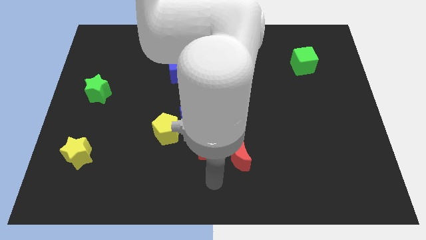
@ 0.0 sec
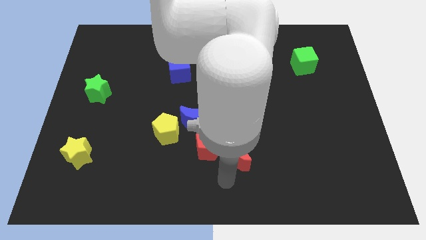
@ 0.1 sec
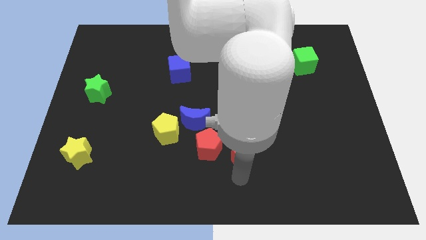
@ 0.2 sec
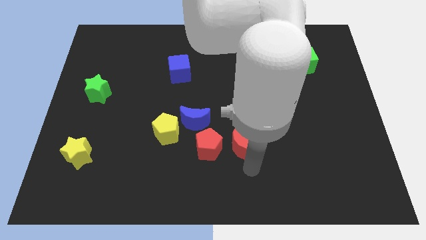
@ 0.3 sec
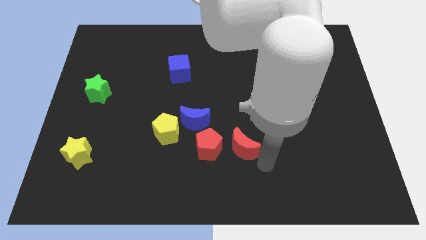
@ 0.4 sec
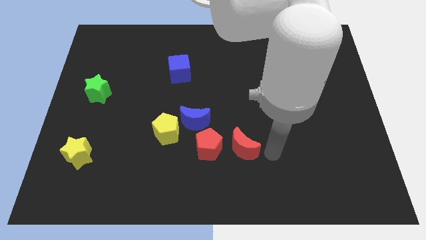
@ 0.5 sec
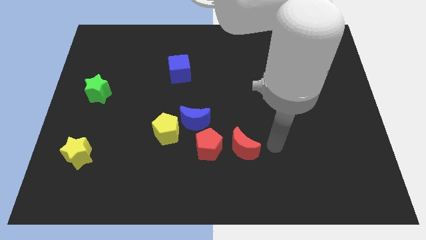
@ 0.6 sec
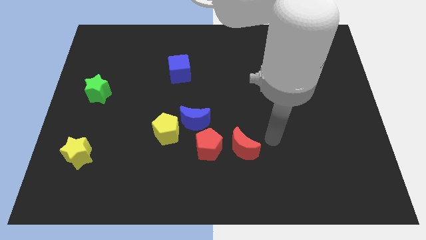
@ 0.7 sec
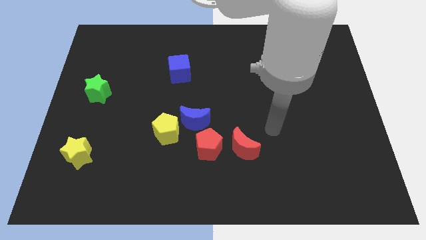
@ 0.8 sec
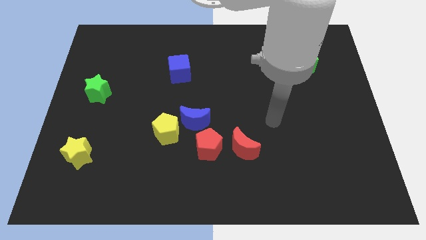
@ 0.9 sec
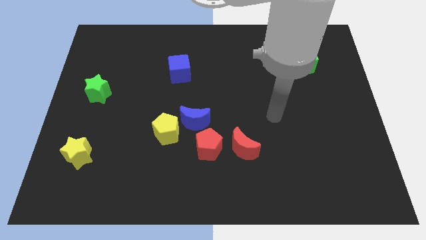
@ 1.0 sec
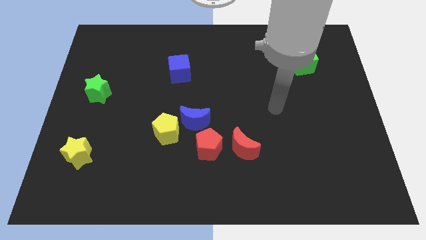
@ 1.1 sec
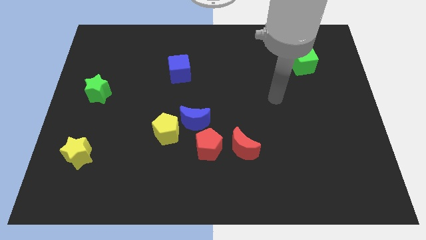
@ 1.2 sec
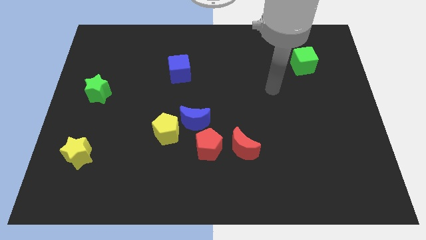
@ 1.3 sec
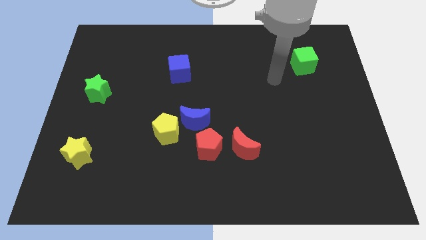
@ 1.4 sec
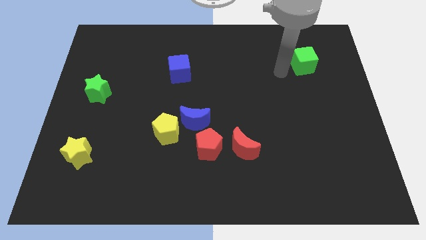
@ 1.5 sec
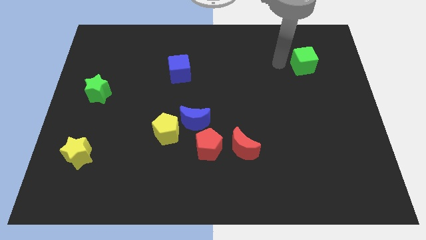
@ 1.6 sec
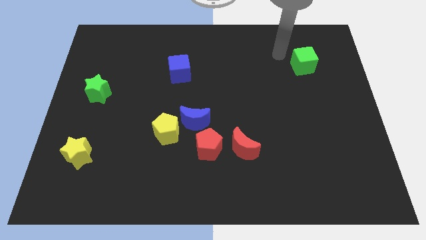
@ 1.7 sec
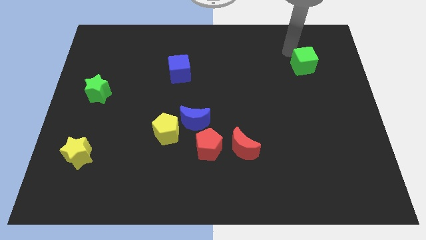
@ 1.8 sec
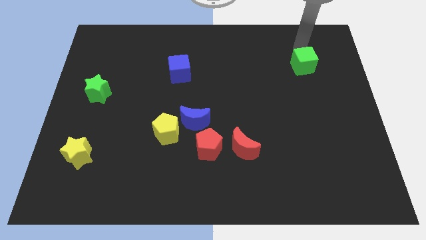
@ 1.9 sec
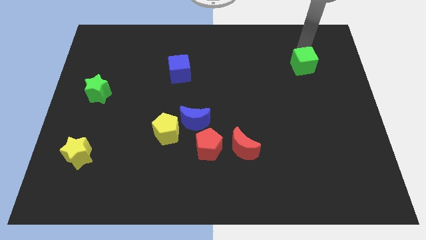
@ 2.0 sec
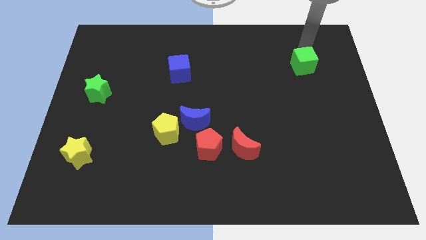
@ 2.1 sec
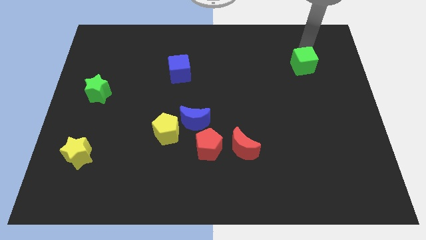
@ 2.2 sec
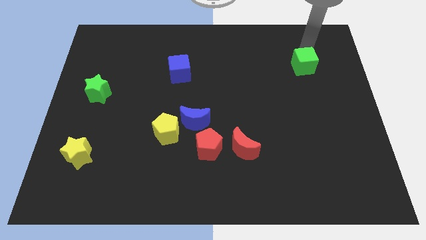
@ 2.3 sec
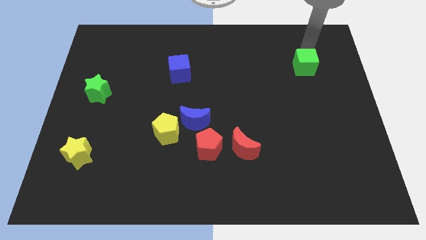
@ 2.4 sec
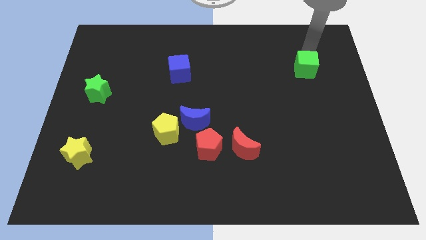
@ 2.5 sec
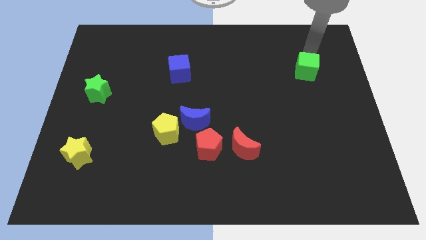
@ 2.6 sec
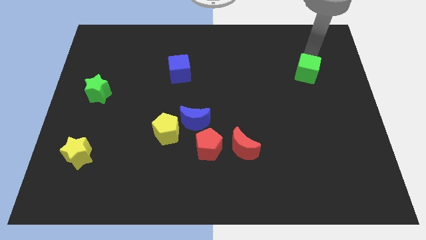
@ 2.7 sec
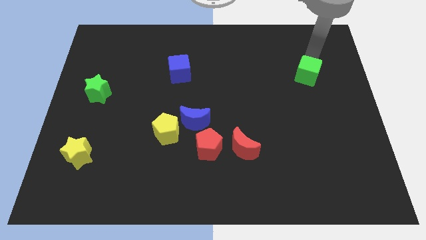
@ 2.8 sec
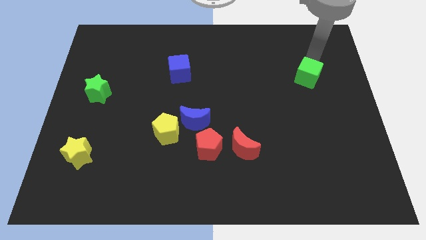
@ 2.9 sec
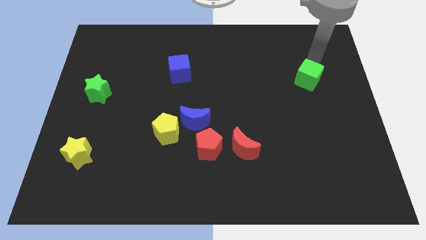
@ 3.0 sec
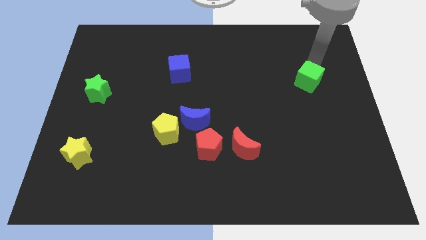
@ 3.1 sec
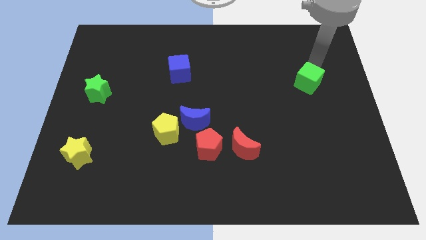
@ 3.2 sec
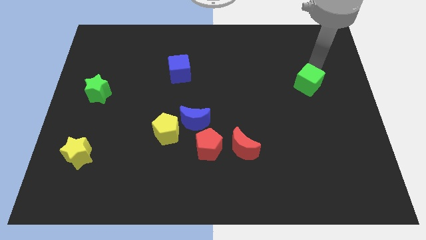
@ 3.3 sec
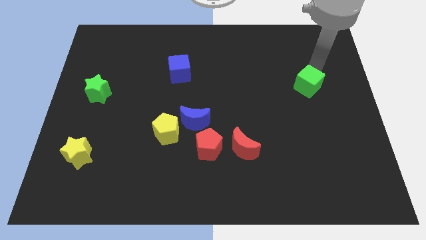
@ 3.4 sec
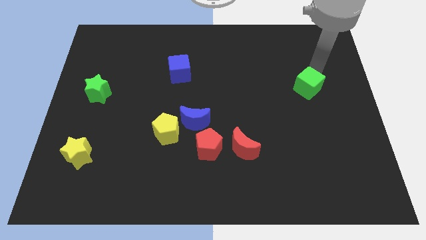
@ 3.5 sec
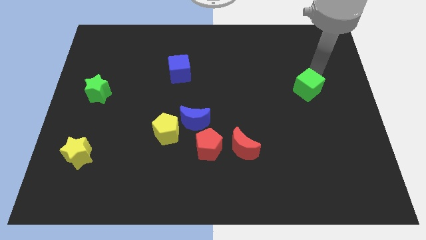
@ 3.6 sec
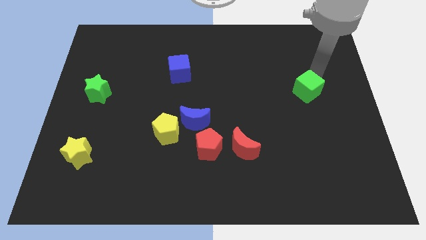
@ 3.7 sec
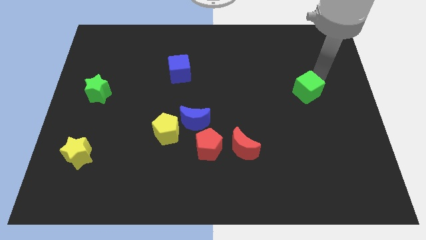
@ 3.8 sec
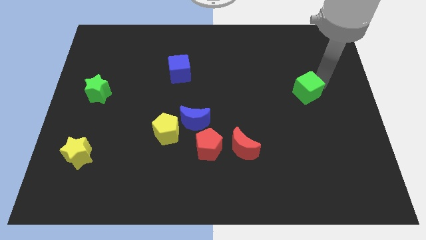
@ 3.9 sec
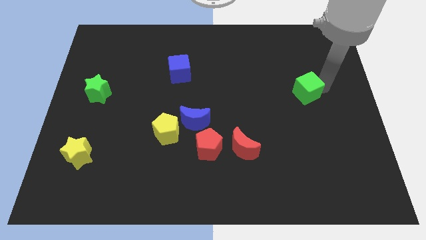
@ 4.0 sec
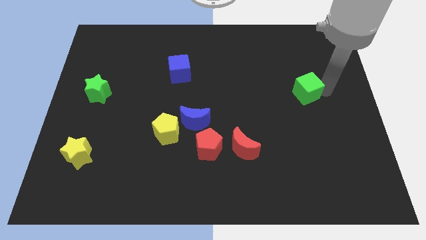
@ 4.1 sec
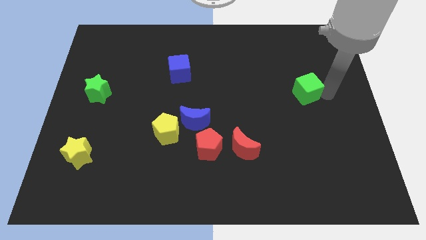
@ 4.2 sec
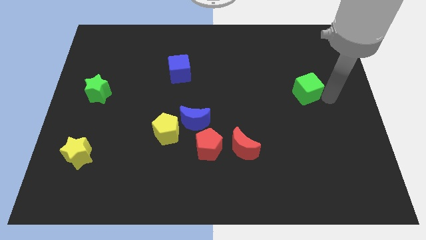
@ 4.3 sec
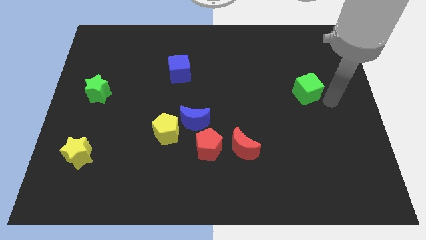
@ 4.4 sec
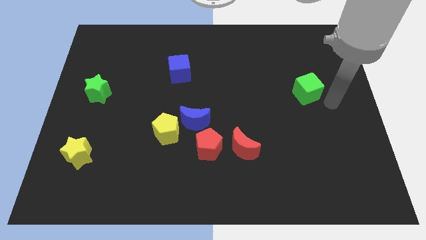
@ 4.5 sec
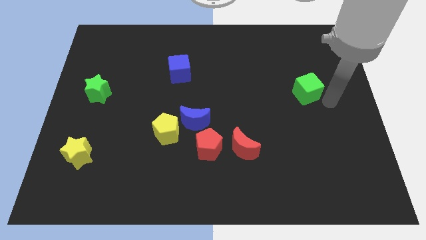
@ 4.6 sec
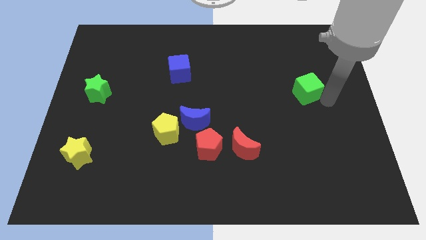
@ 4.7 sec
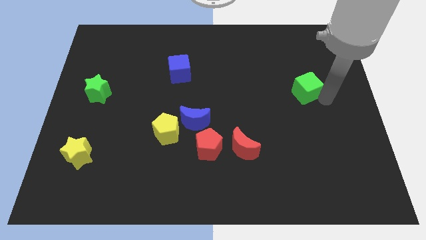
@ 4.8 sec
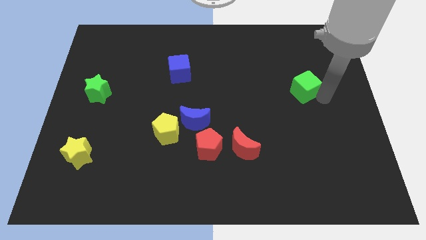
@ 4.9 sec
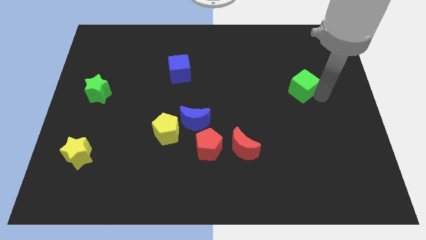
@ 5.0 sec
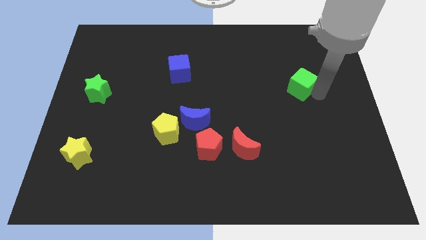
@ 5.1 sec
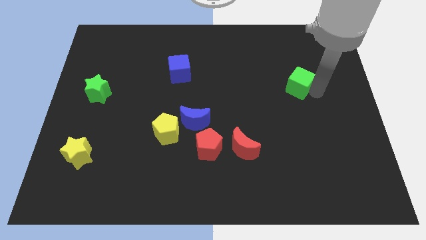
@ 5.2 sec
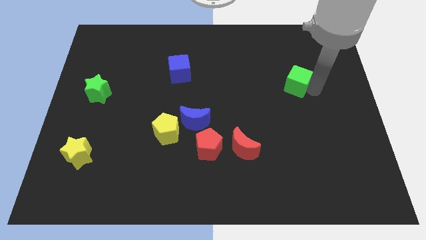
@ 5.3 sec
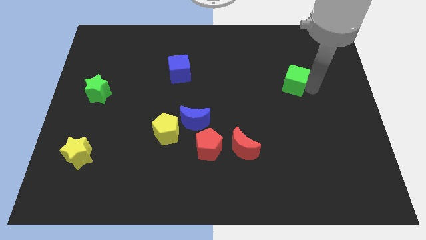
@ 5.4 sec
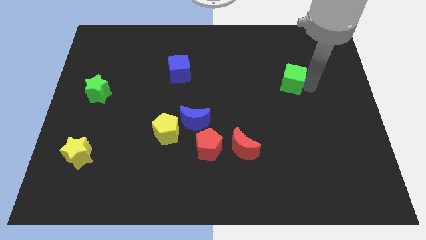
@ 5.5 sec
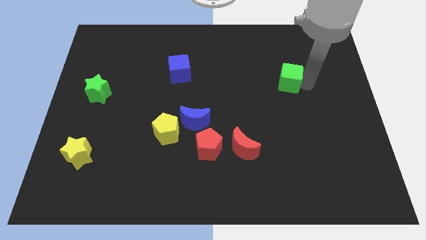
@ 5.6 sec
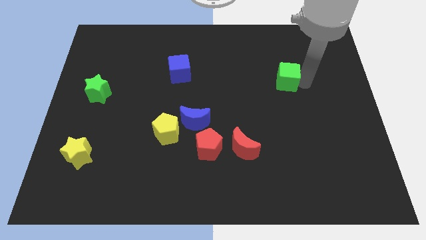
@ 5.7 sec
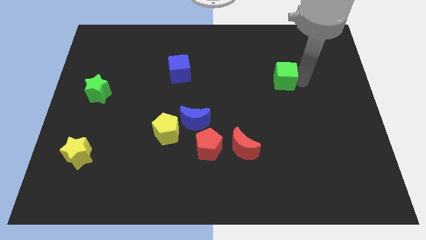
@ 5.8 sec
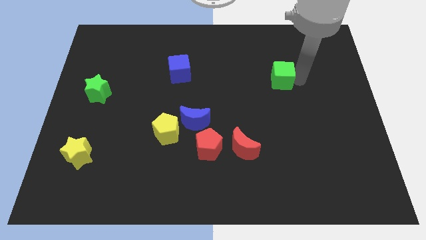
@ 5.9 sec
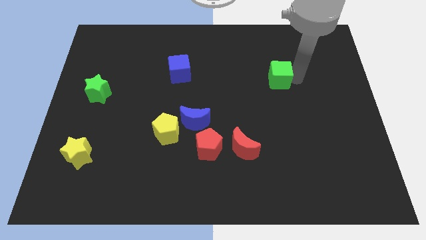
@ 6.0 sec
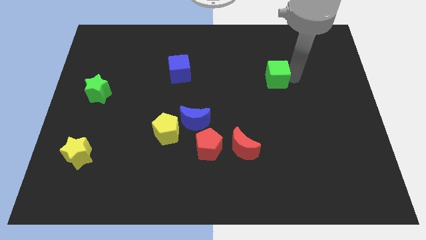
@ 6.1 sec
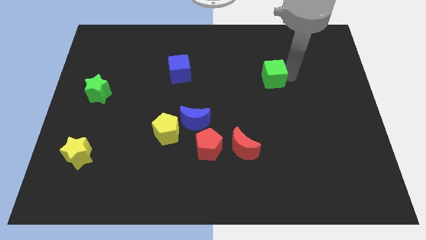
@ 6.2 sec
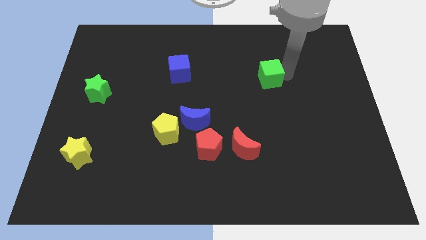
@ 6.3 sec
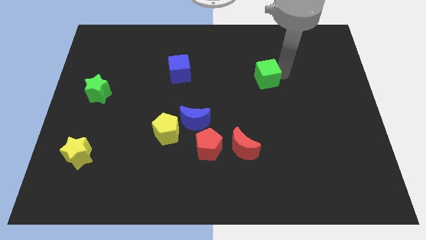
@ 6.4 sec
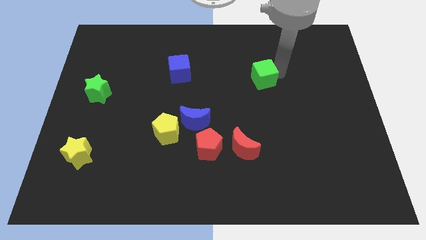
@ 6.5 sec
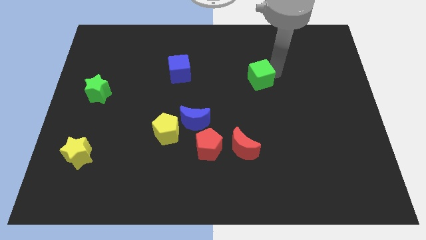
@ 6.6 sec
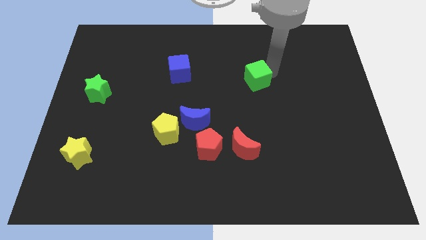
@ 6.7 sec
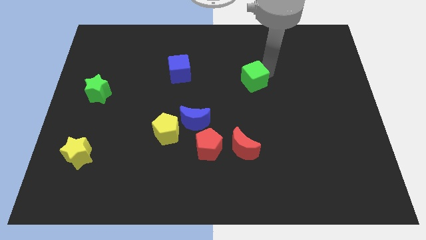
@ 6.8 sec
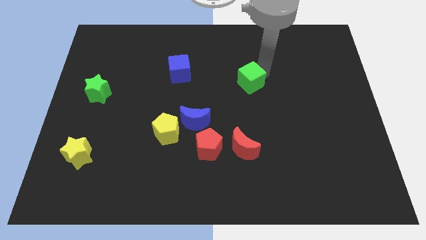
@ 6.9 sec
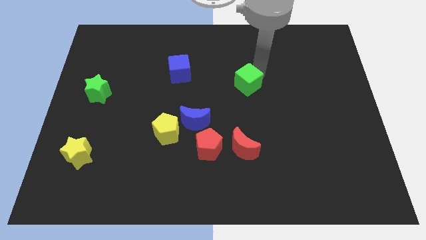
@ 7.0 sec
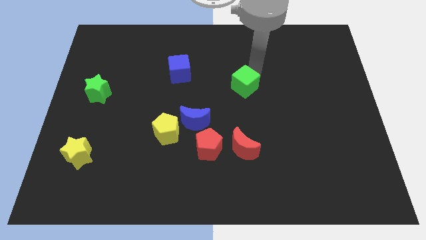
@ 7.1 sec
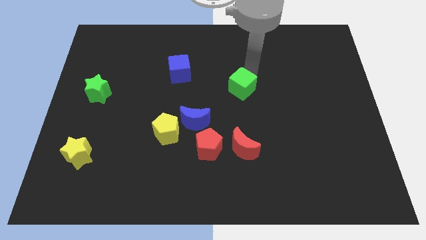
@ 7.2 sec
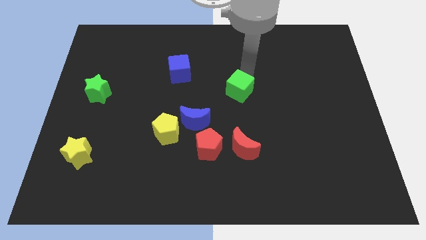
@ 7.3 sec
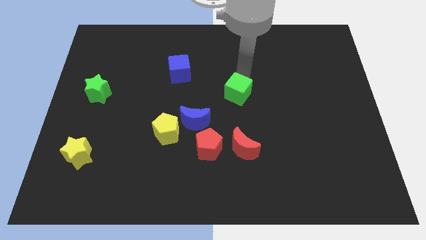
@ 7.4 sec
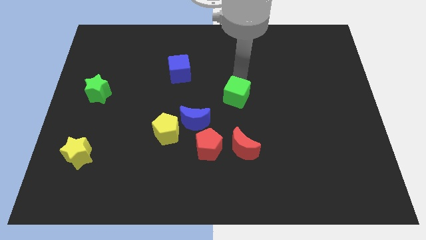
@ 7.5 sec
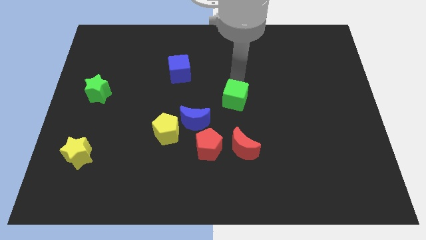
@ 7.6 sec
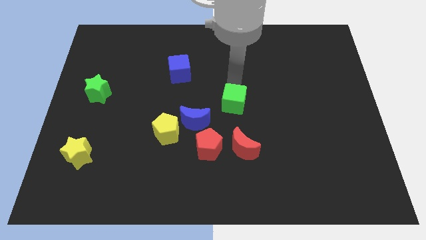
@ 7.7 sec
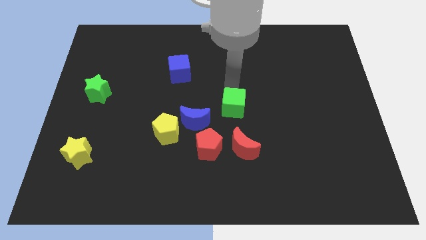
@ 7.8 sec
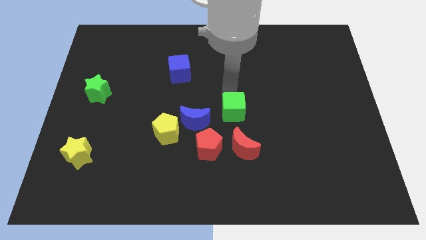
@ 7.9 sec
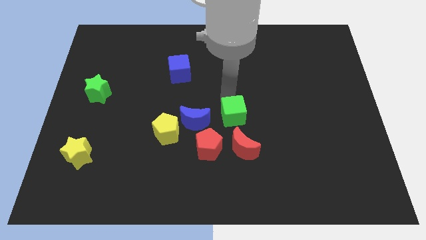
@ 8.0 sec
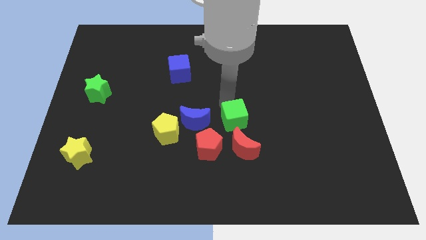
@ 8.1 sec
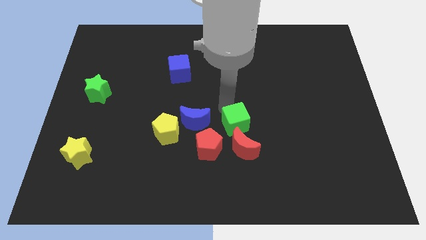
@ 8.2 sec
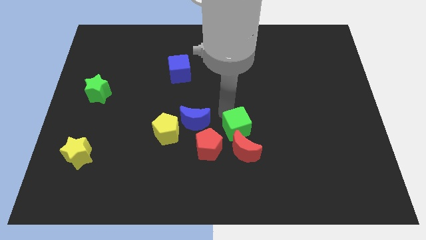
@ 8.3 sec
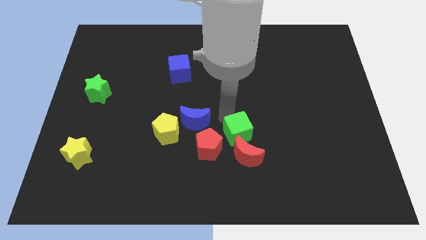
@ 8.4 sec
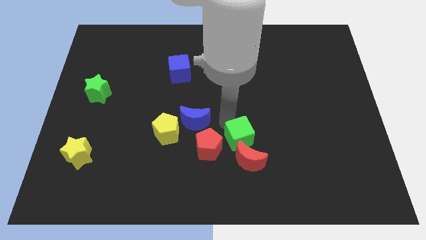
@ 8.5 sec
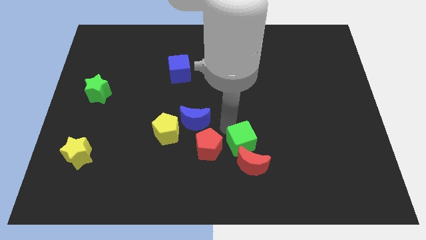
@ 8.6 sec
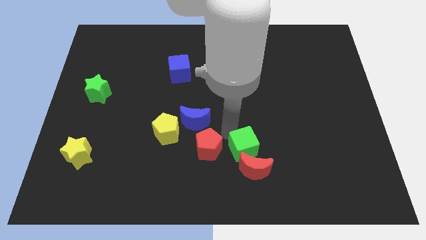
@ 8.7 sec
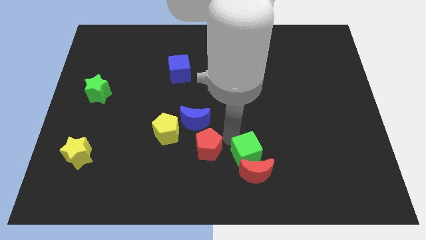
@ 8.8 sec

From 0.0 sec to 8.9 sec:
push the green cube to the bottom right side of the red pentagon
